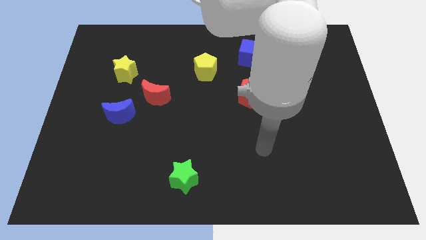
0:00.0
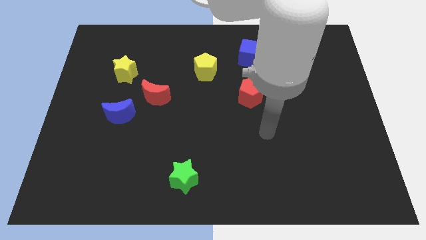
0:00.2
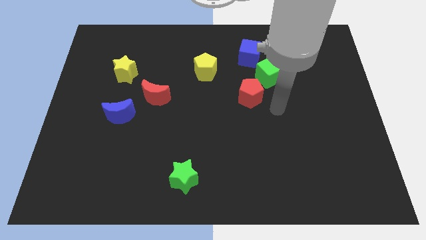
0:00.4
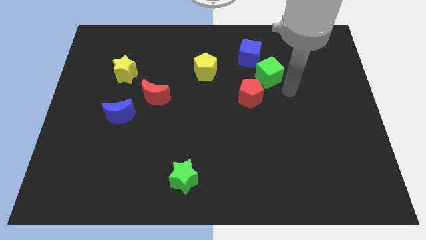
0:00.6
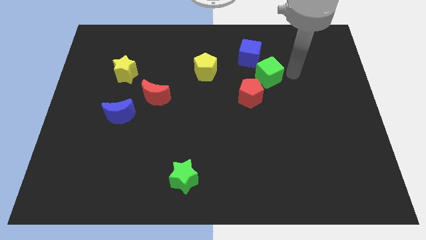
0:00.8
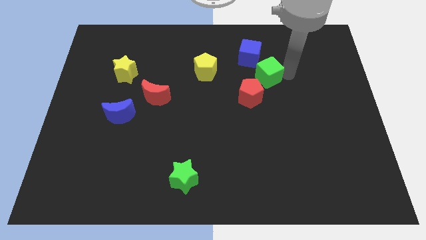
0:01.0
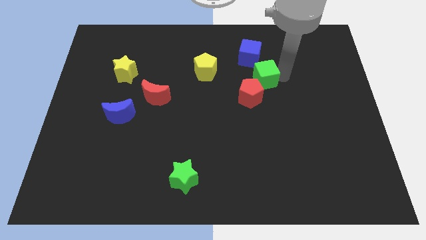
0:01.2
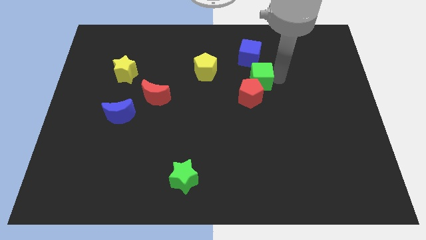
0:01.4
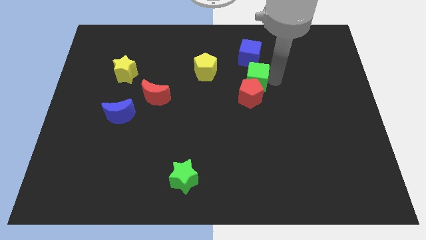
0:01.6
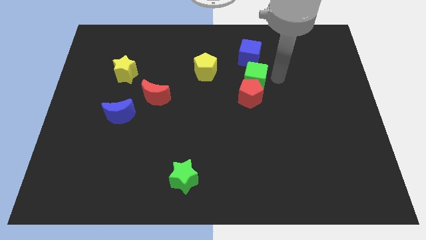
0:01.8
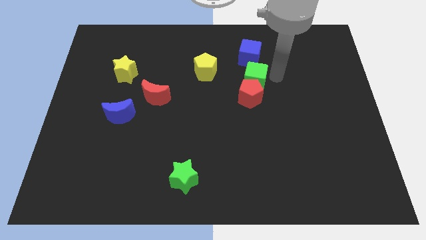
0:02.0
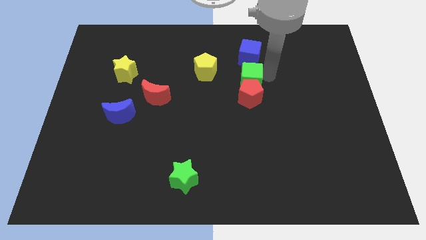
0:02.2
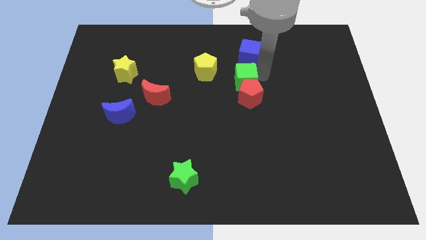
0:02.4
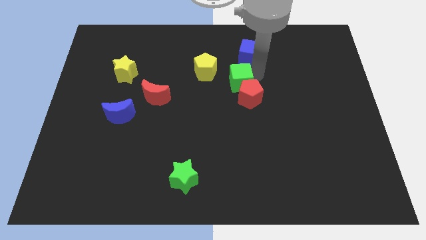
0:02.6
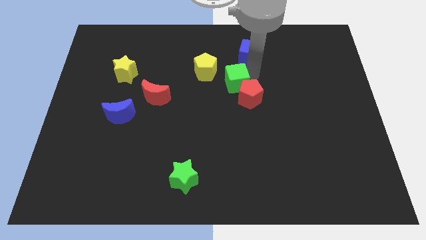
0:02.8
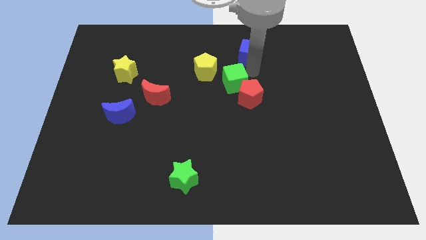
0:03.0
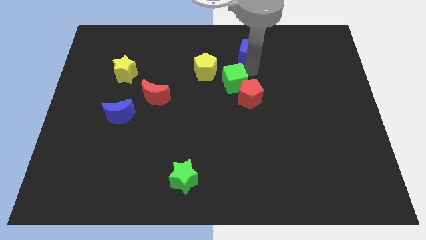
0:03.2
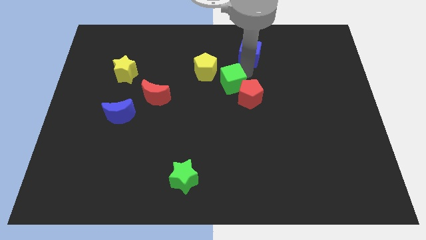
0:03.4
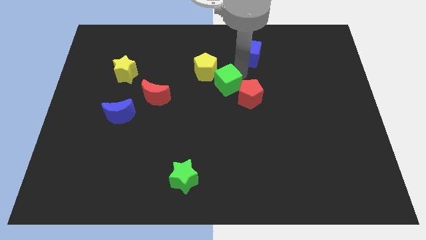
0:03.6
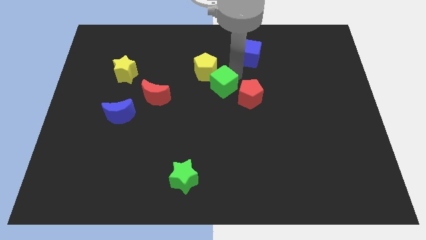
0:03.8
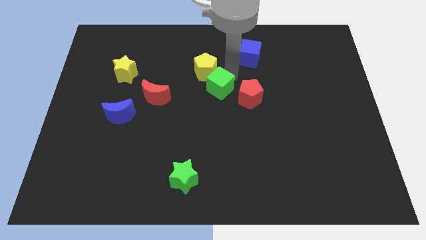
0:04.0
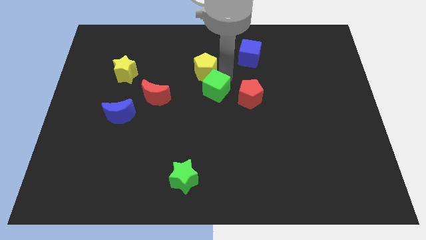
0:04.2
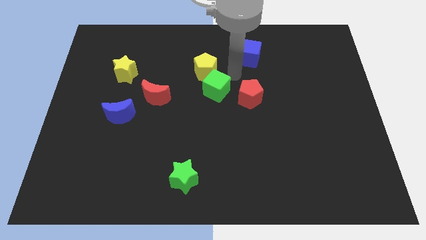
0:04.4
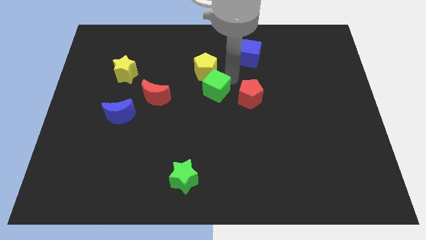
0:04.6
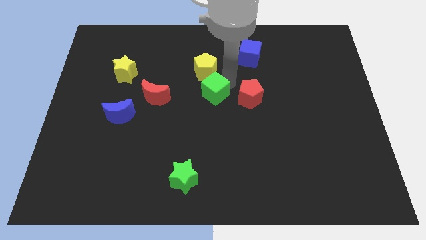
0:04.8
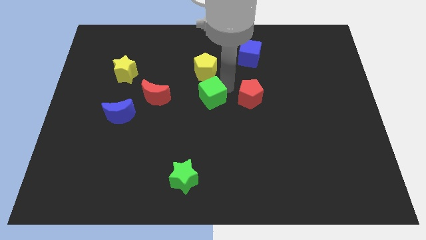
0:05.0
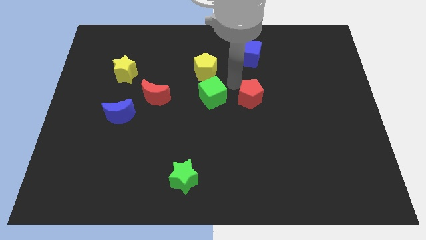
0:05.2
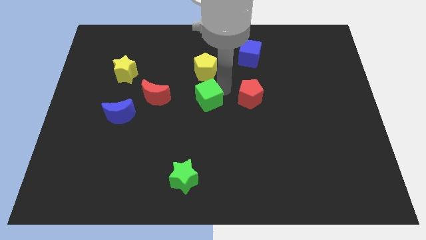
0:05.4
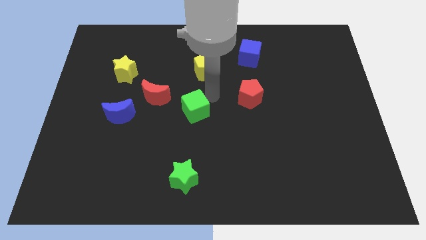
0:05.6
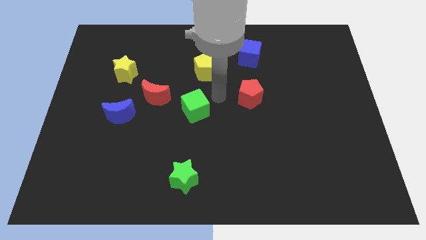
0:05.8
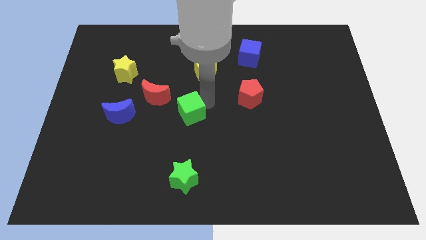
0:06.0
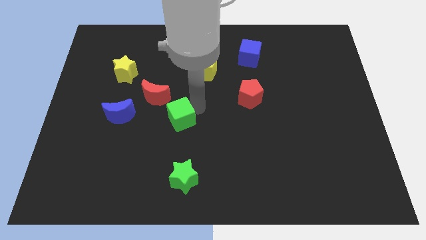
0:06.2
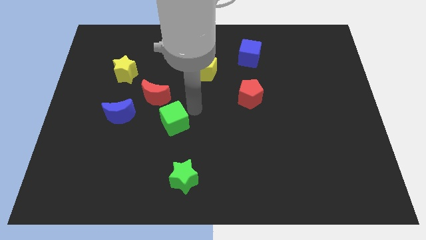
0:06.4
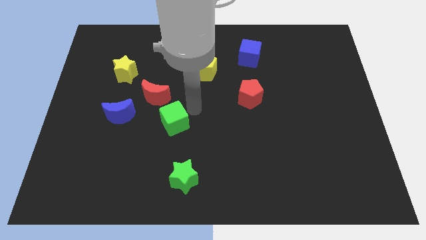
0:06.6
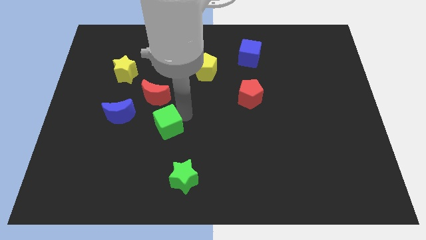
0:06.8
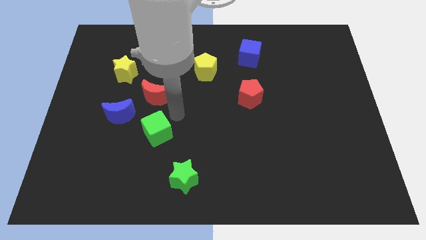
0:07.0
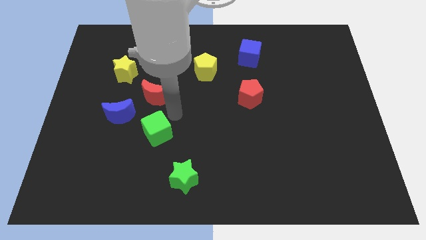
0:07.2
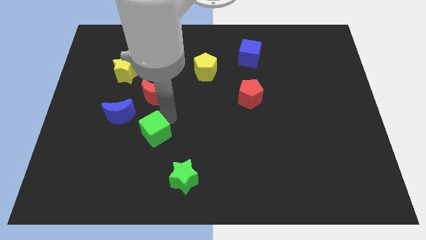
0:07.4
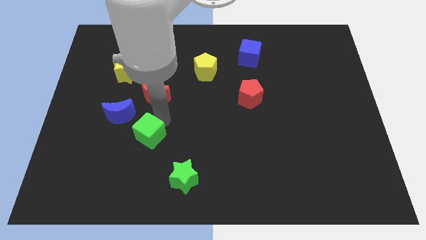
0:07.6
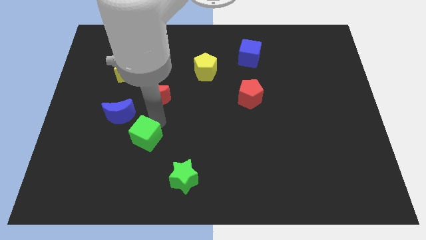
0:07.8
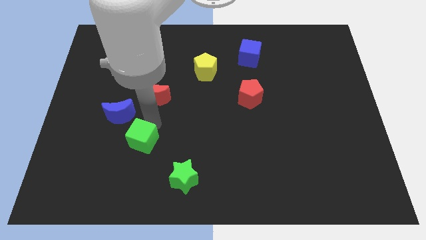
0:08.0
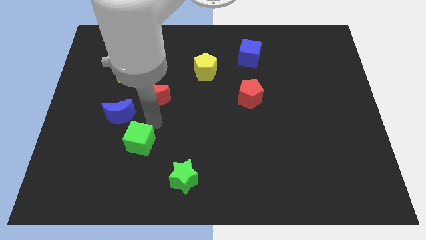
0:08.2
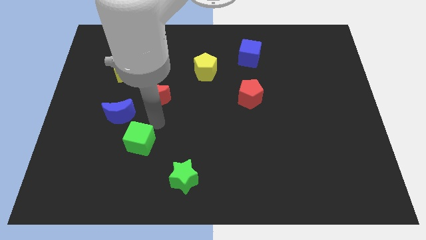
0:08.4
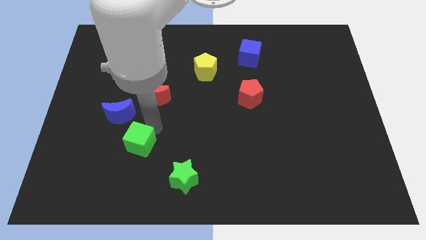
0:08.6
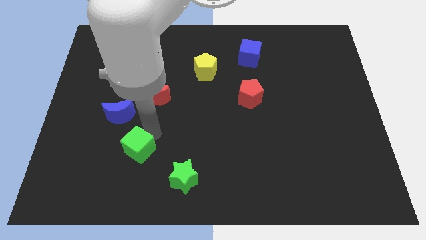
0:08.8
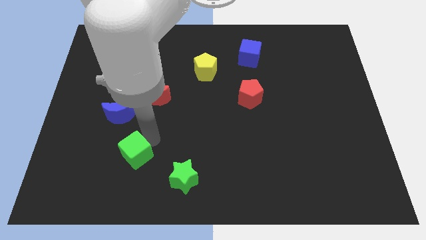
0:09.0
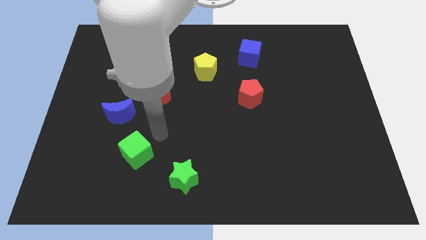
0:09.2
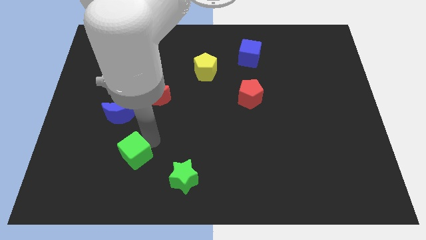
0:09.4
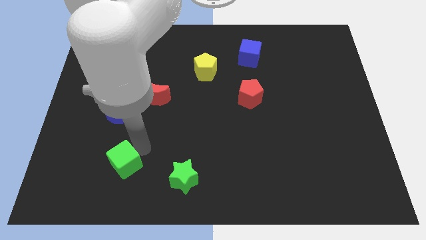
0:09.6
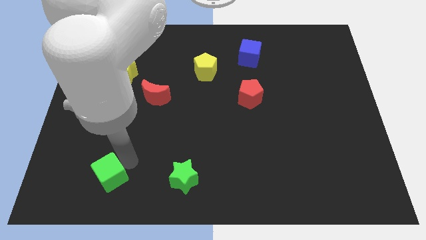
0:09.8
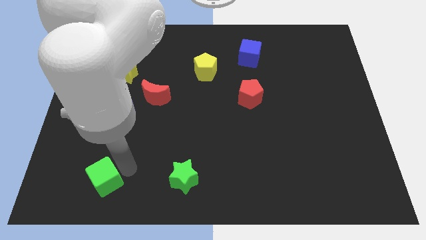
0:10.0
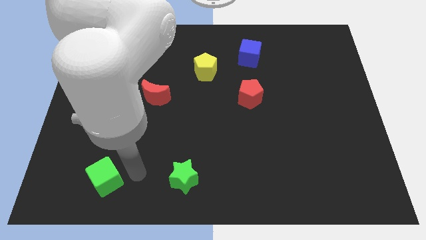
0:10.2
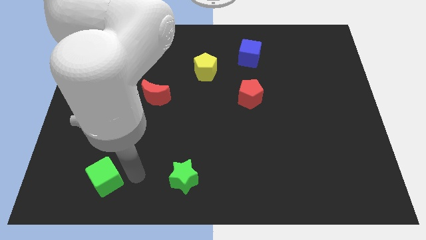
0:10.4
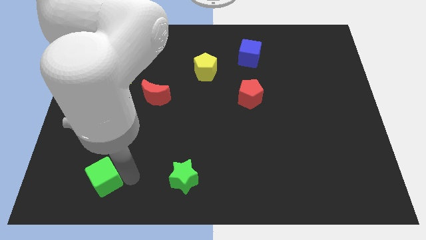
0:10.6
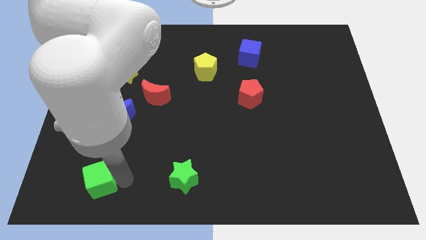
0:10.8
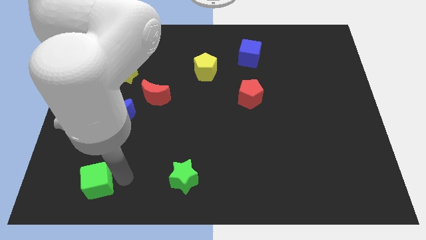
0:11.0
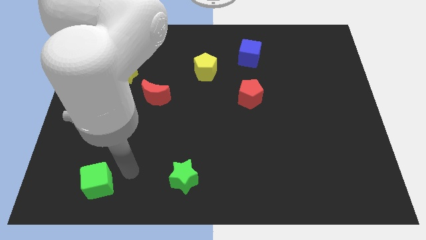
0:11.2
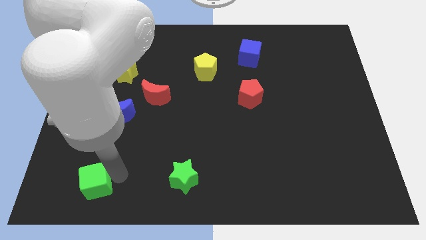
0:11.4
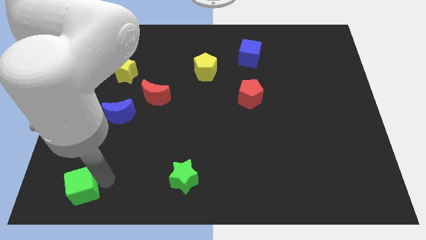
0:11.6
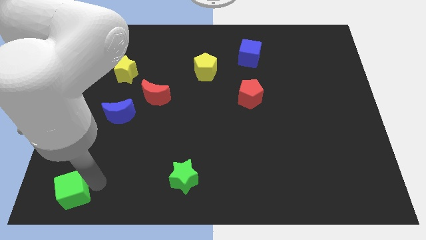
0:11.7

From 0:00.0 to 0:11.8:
put the green cube to the bottom left corner

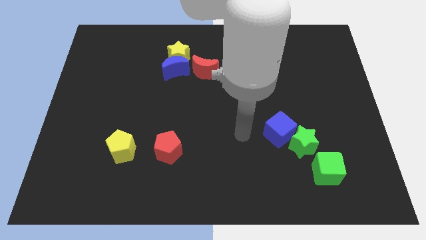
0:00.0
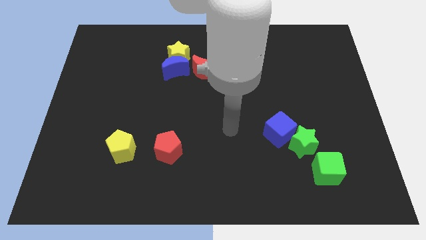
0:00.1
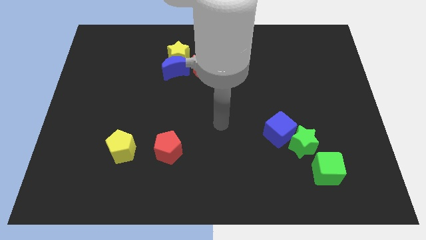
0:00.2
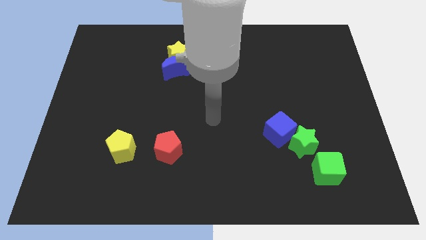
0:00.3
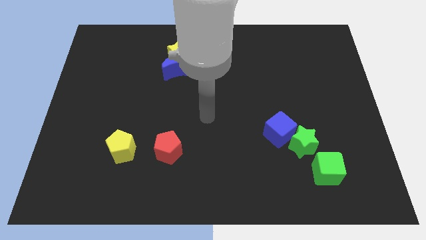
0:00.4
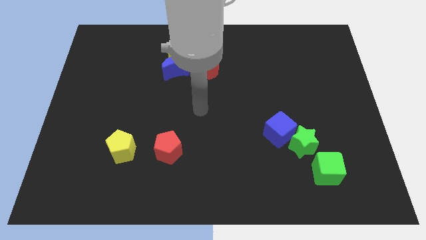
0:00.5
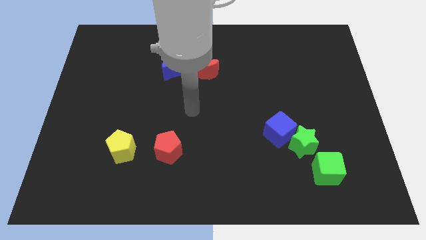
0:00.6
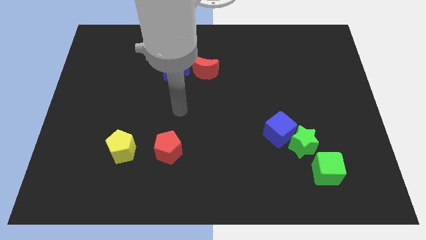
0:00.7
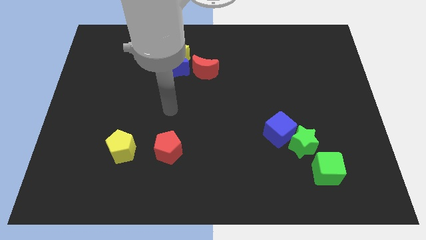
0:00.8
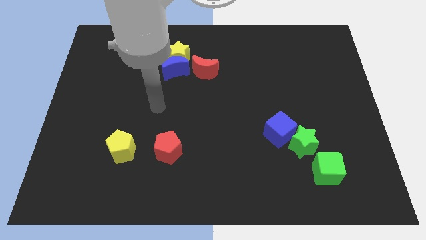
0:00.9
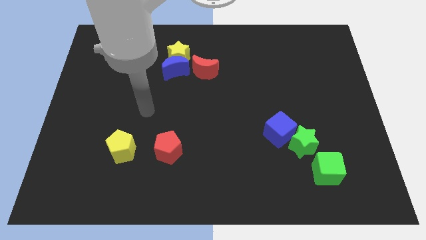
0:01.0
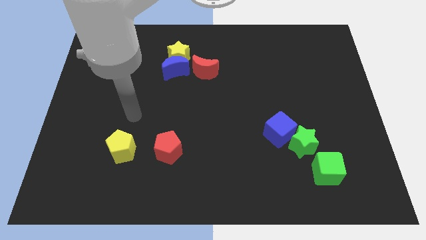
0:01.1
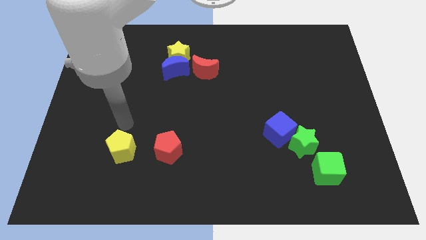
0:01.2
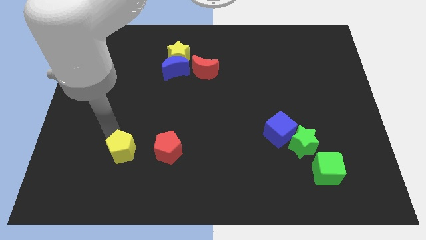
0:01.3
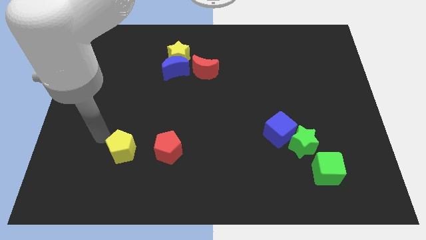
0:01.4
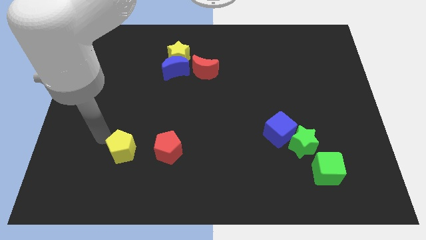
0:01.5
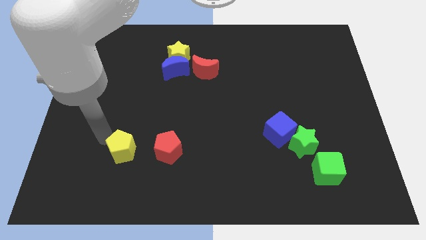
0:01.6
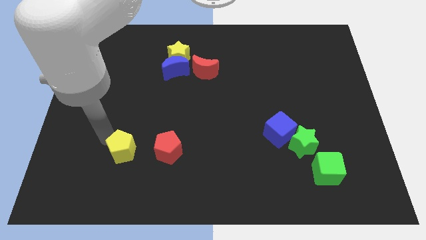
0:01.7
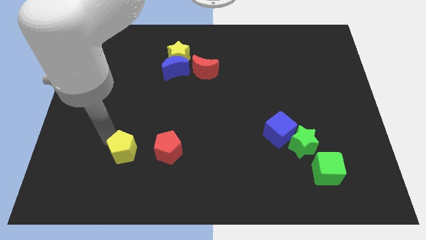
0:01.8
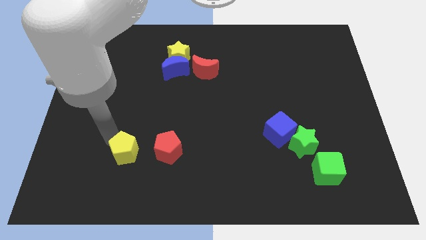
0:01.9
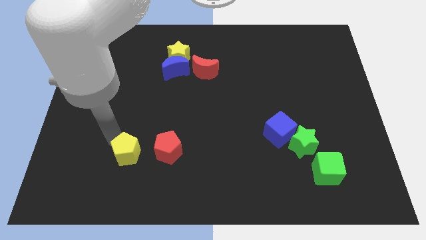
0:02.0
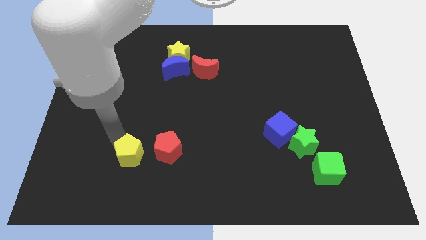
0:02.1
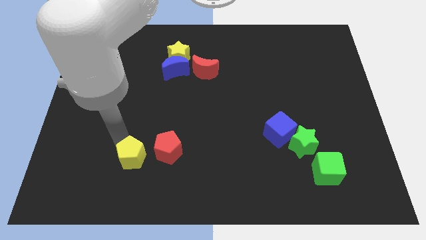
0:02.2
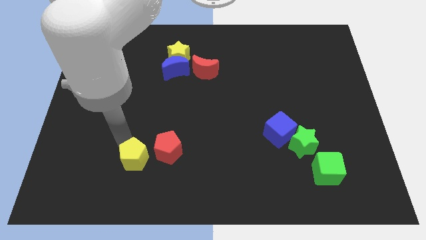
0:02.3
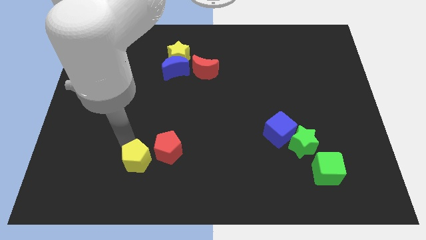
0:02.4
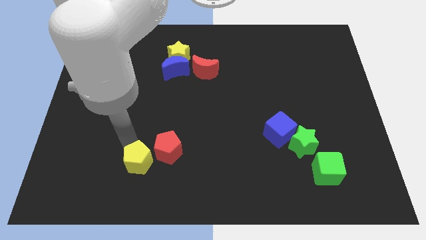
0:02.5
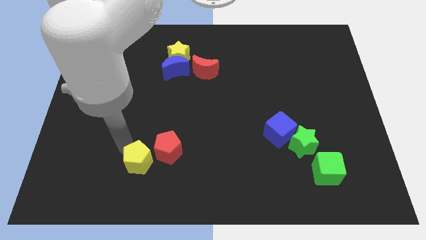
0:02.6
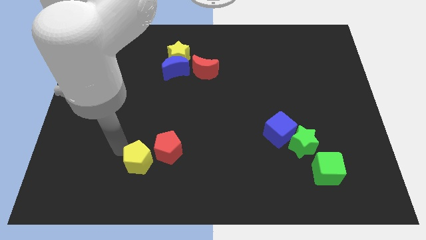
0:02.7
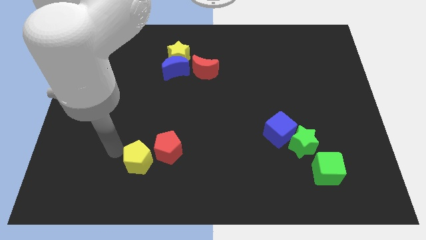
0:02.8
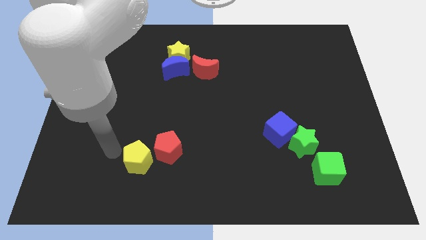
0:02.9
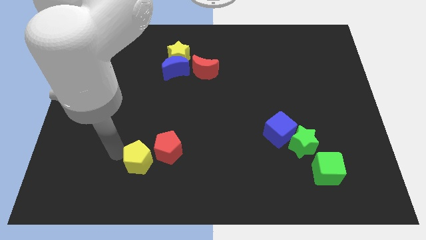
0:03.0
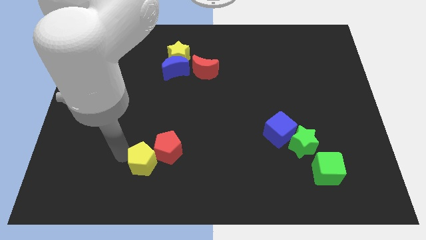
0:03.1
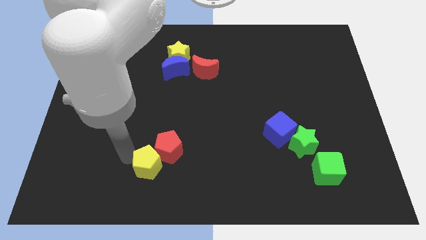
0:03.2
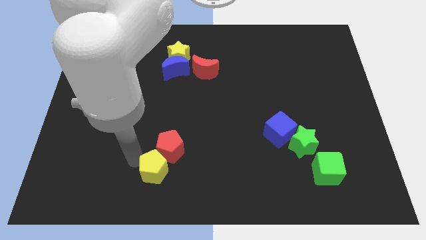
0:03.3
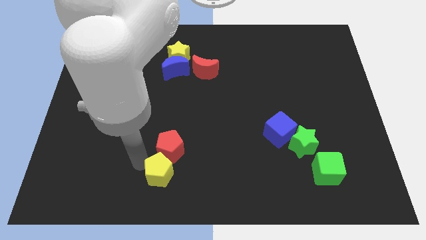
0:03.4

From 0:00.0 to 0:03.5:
move the yellow pentagon to the bottom side
